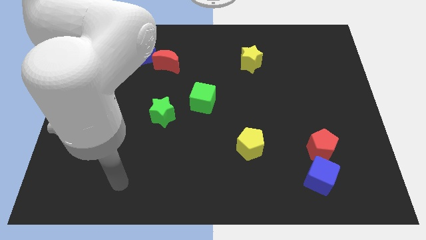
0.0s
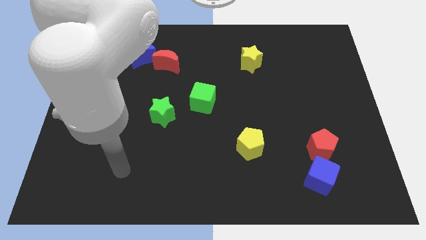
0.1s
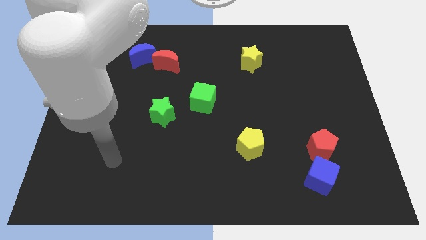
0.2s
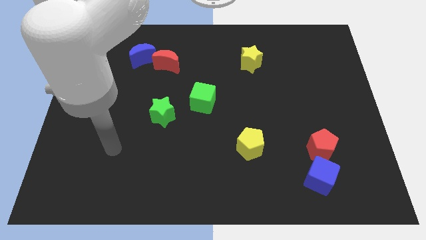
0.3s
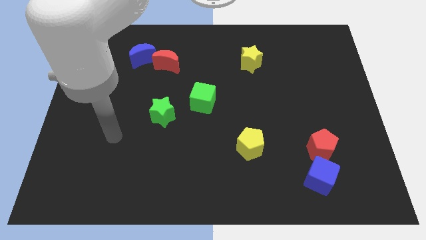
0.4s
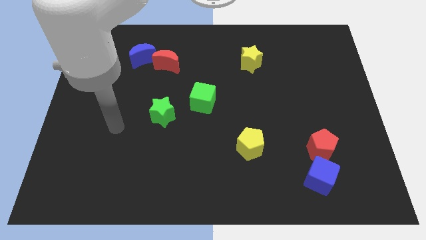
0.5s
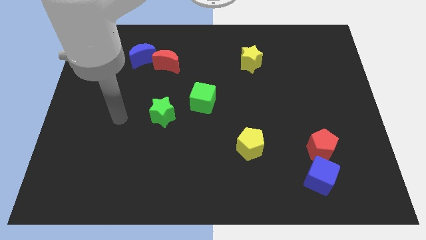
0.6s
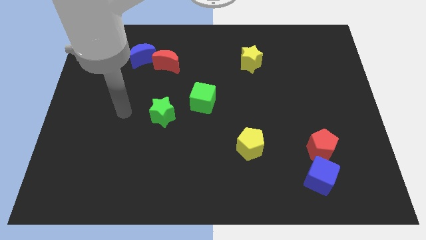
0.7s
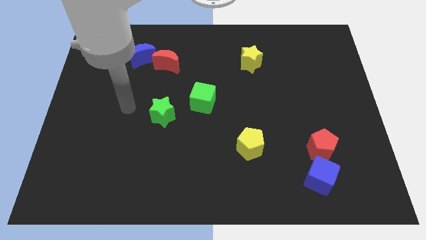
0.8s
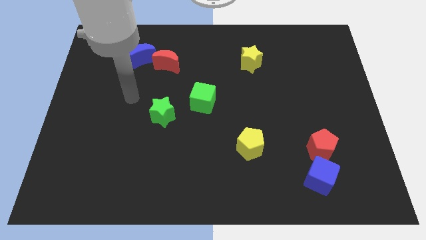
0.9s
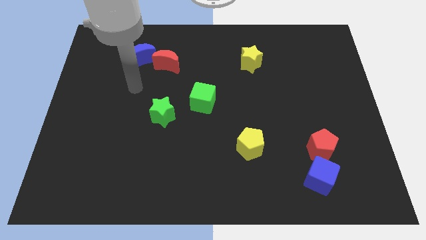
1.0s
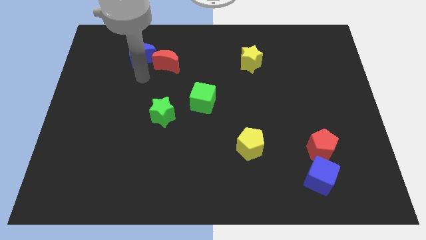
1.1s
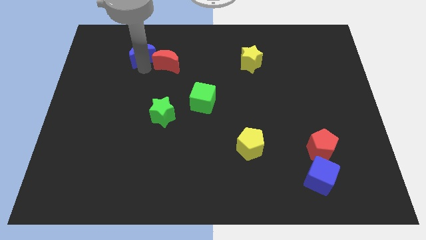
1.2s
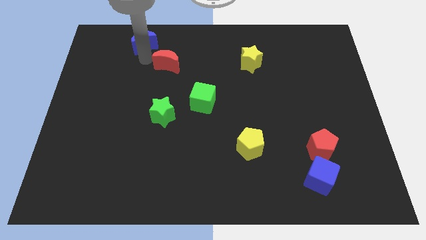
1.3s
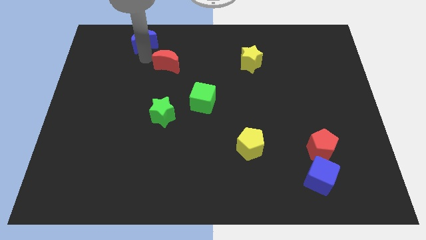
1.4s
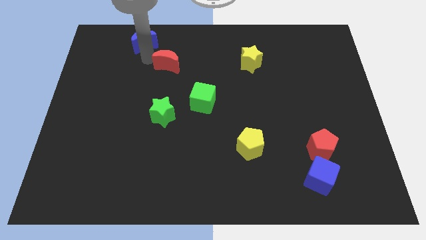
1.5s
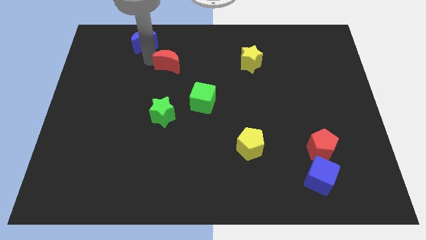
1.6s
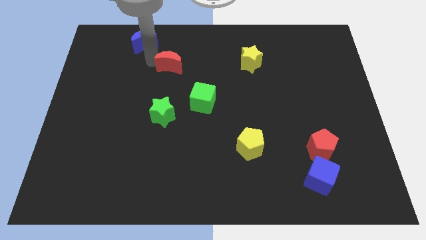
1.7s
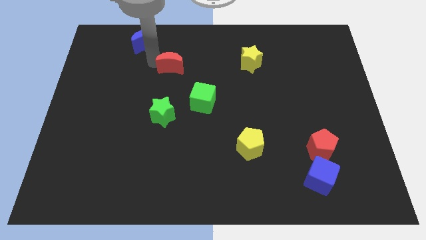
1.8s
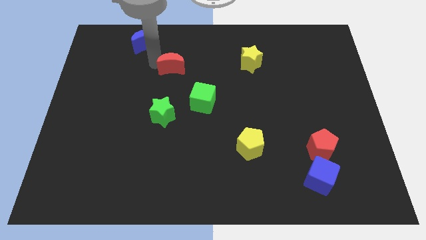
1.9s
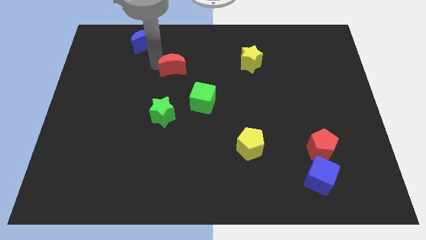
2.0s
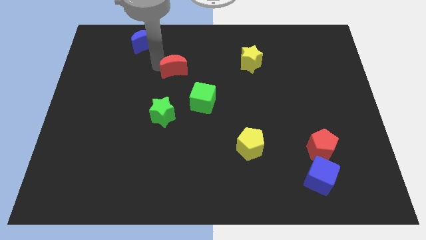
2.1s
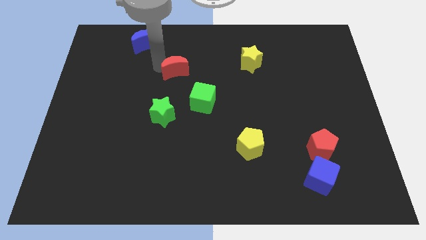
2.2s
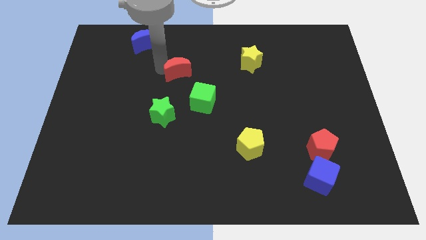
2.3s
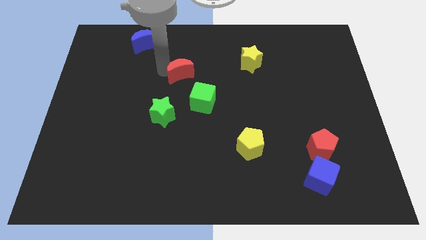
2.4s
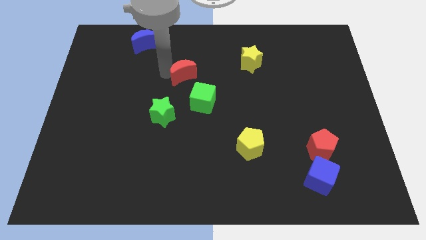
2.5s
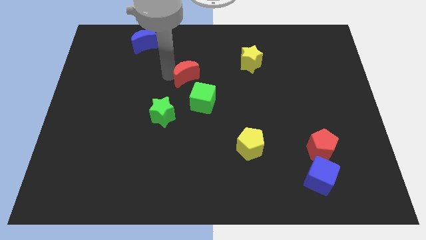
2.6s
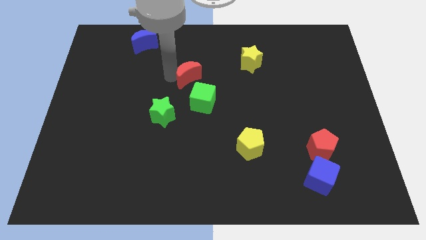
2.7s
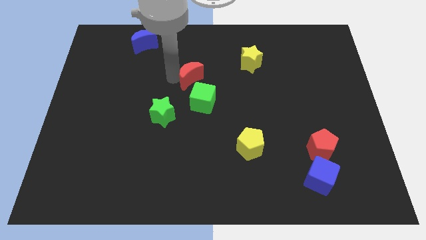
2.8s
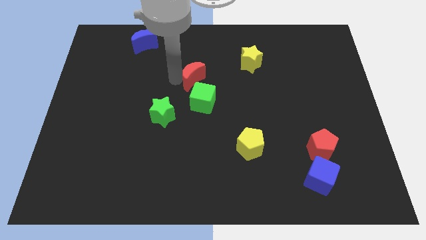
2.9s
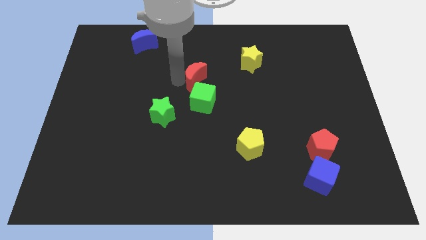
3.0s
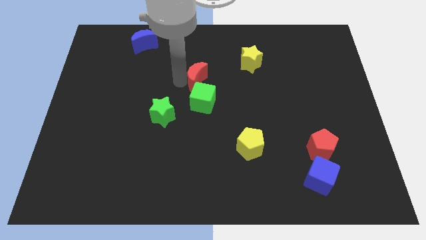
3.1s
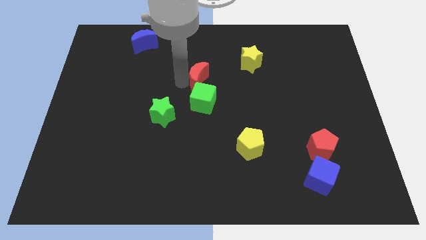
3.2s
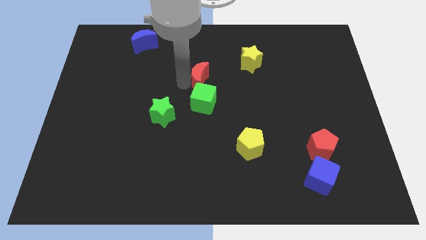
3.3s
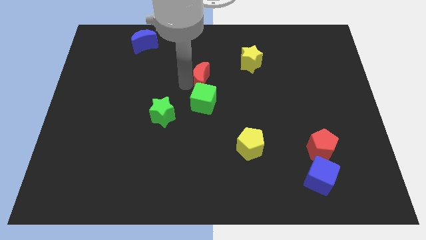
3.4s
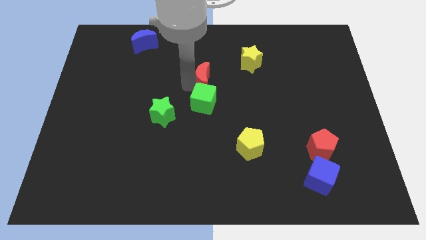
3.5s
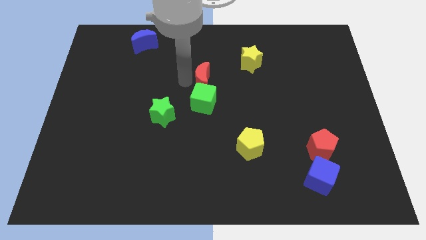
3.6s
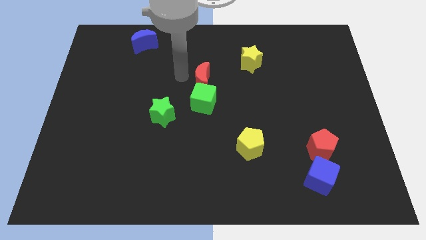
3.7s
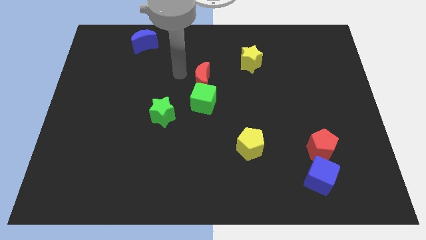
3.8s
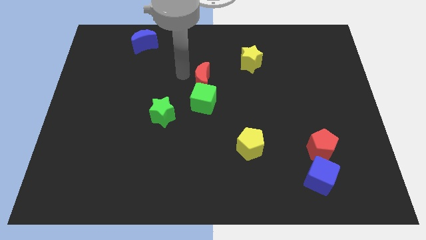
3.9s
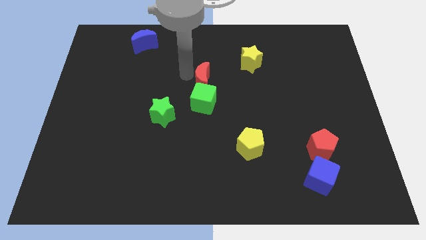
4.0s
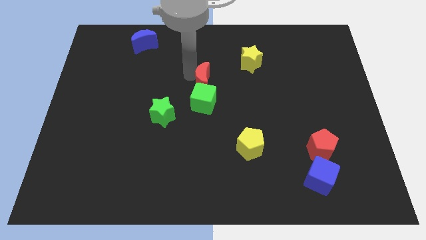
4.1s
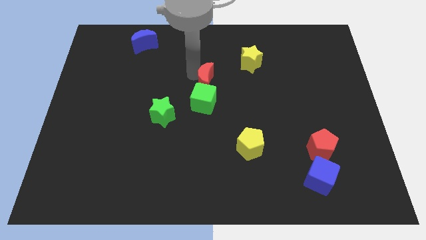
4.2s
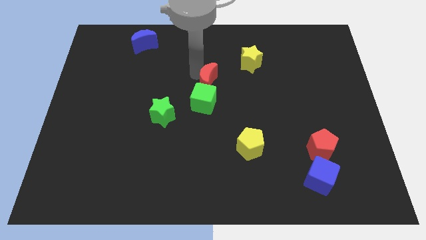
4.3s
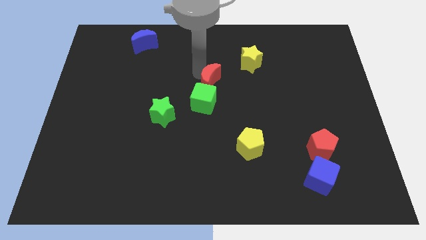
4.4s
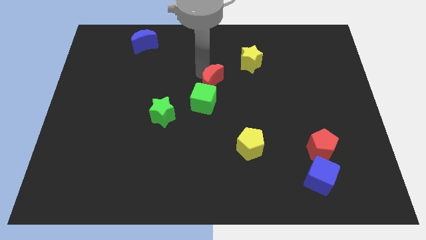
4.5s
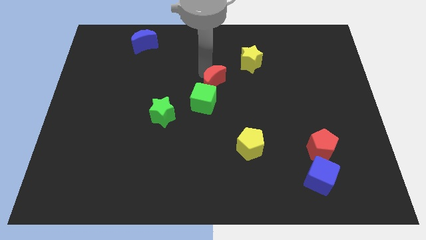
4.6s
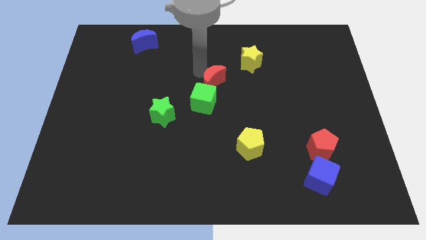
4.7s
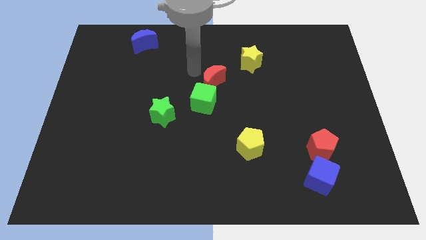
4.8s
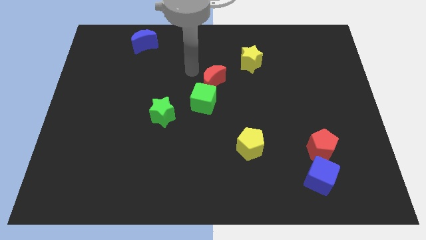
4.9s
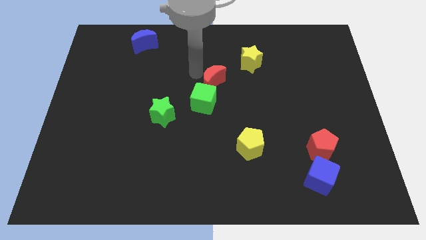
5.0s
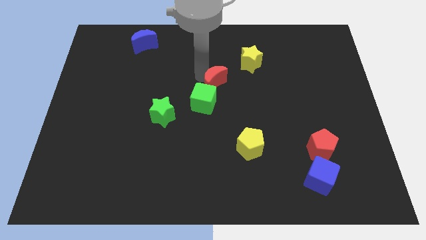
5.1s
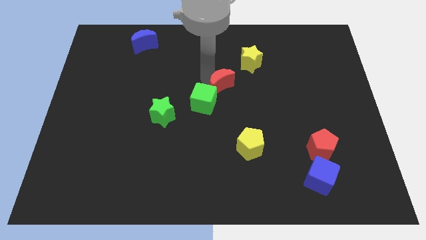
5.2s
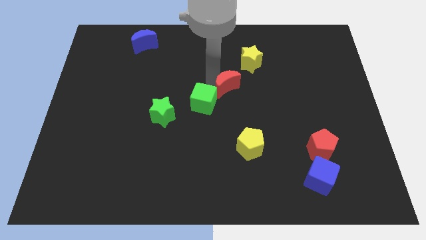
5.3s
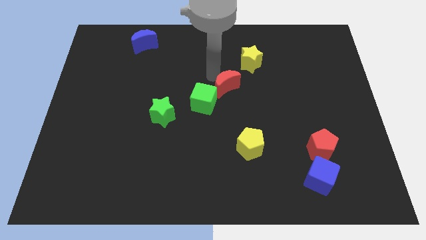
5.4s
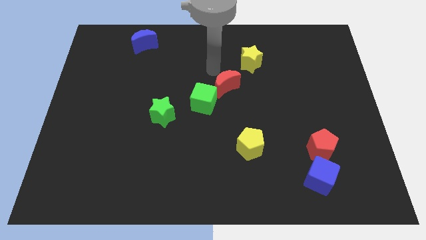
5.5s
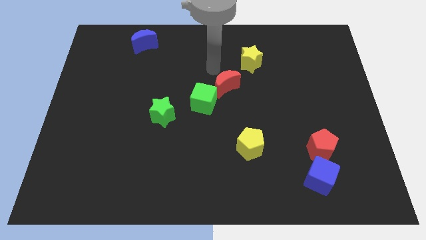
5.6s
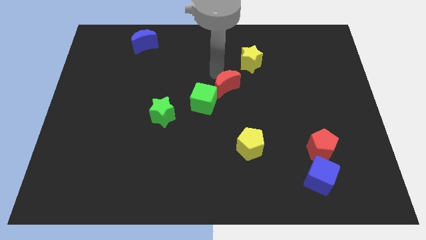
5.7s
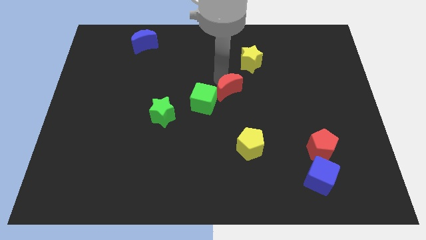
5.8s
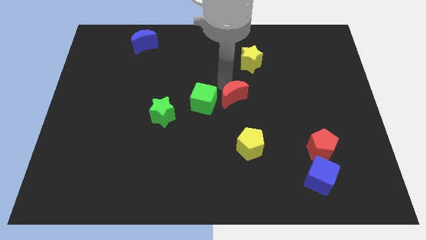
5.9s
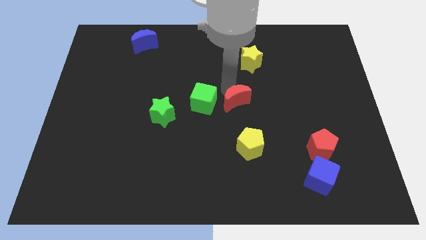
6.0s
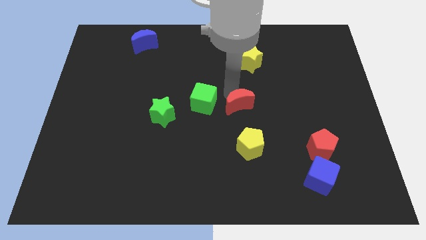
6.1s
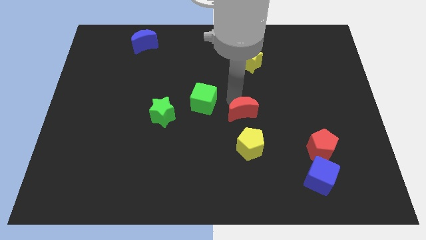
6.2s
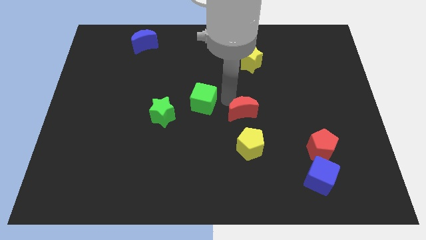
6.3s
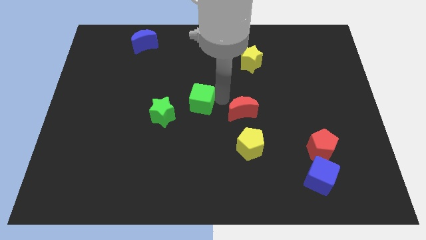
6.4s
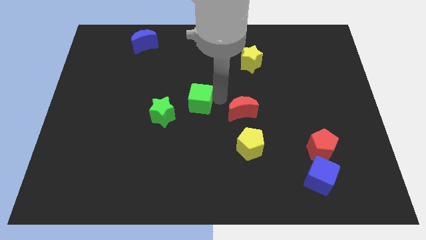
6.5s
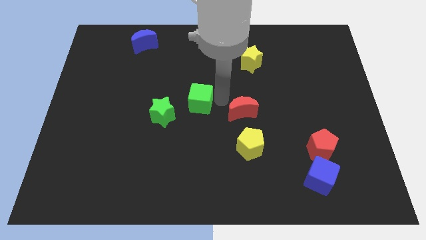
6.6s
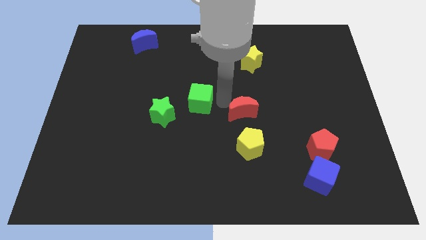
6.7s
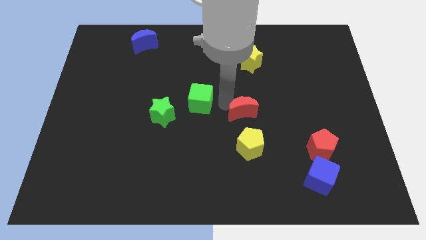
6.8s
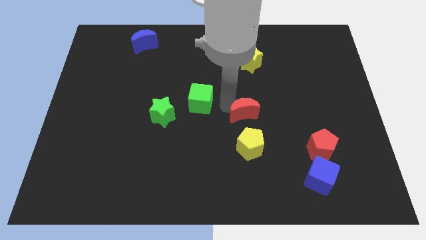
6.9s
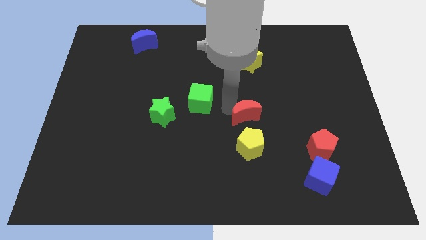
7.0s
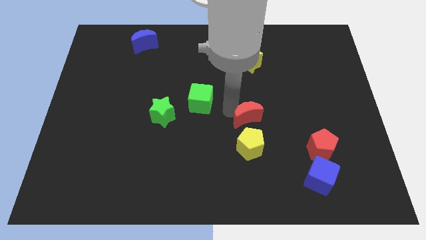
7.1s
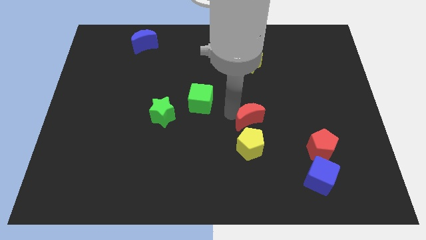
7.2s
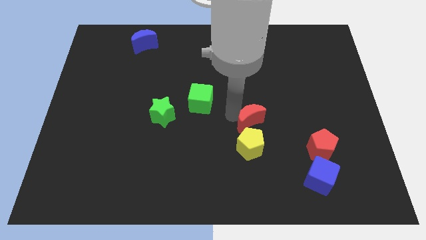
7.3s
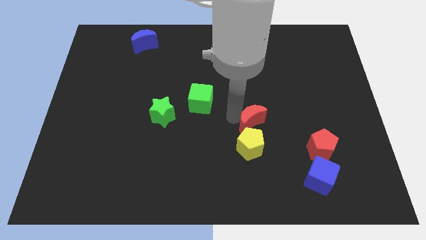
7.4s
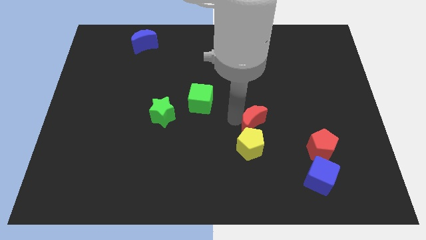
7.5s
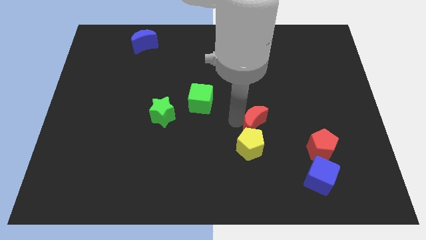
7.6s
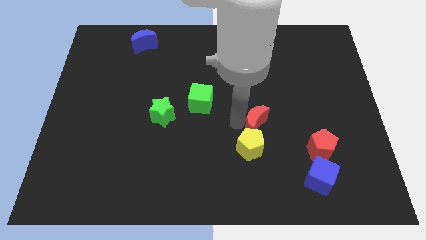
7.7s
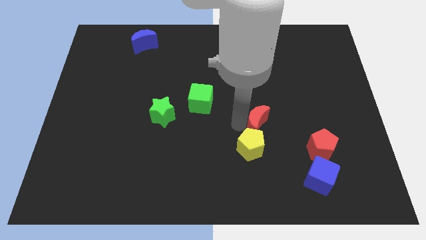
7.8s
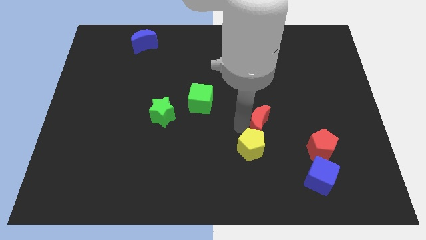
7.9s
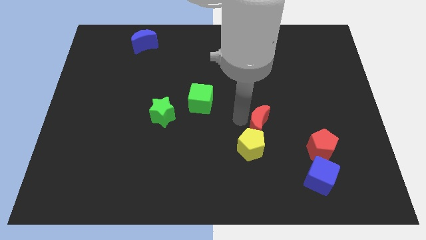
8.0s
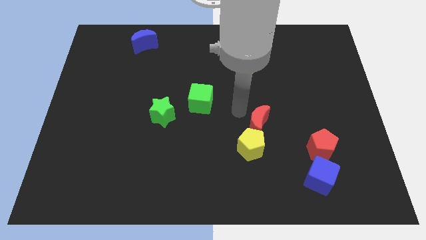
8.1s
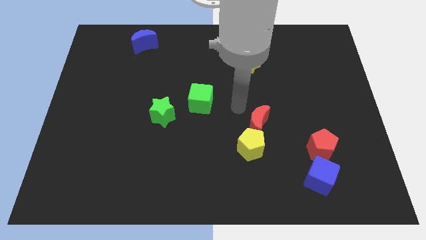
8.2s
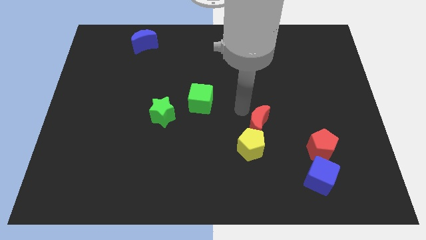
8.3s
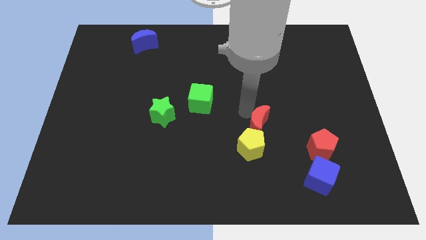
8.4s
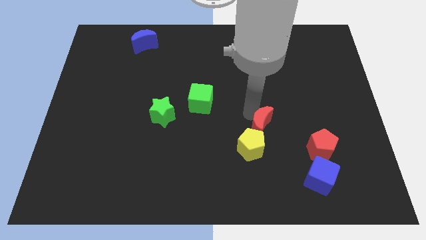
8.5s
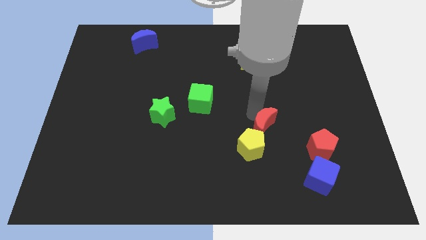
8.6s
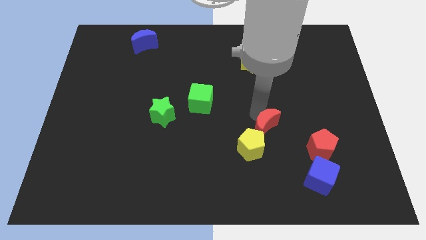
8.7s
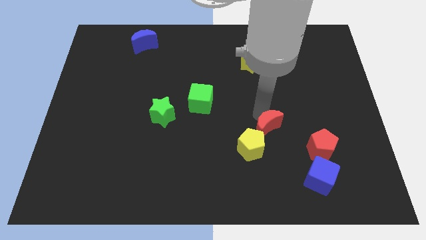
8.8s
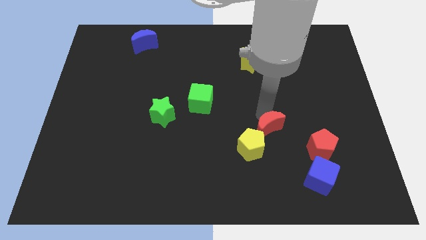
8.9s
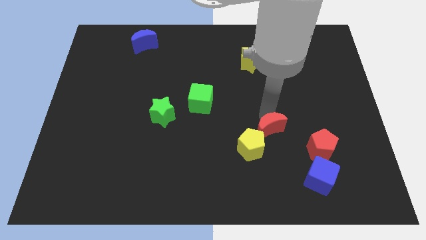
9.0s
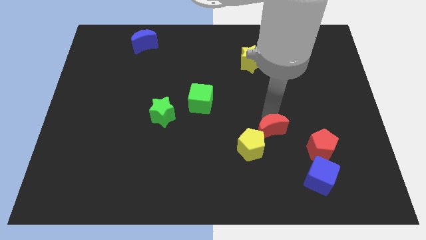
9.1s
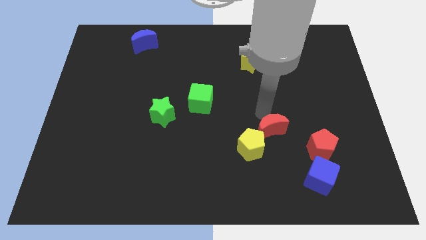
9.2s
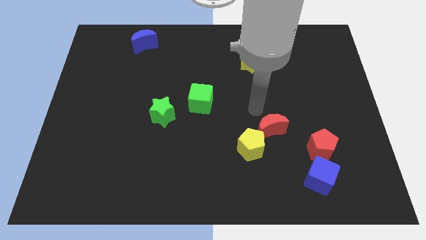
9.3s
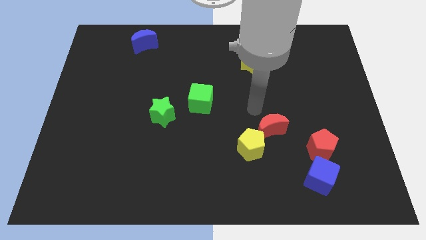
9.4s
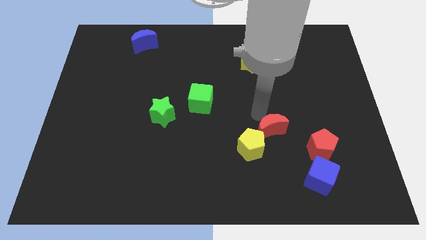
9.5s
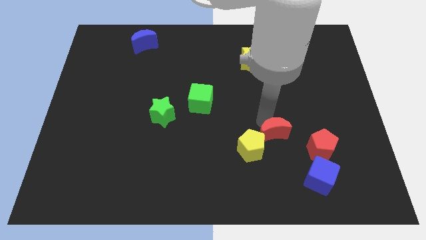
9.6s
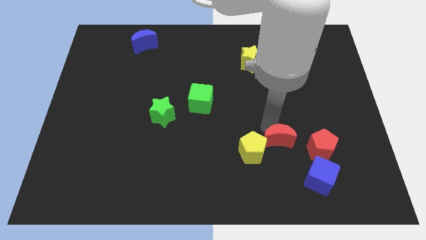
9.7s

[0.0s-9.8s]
push the red moon to the top left of the blue cube
